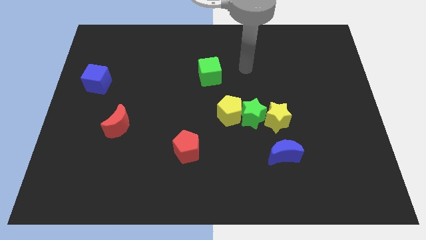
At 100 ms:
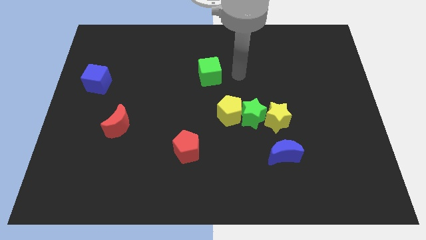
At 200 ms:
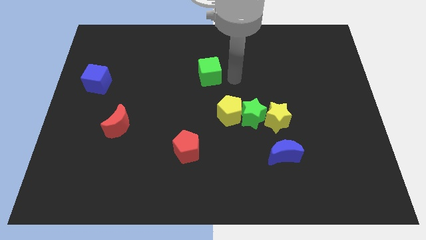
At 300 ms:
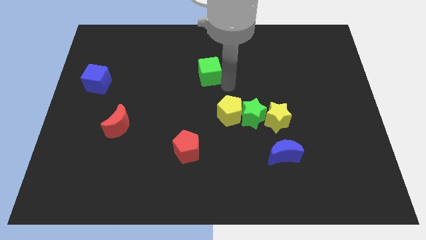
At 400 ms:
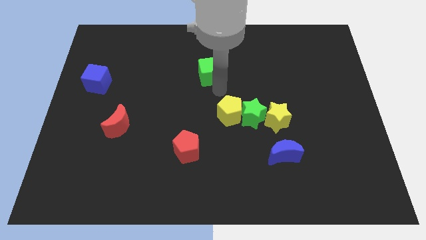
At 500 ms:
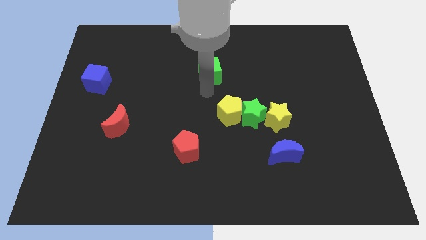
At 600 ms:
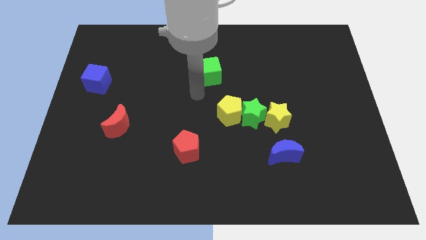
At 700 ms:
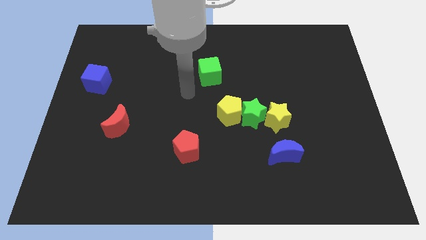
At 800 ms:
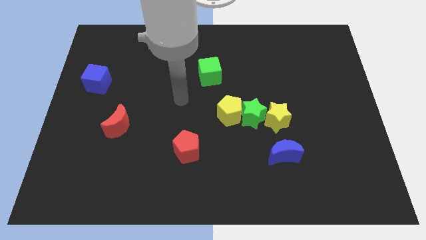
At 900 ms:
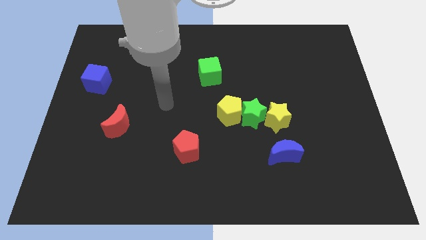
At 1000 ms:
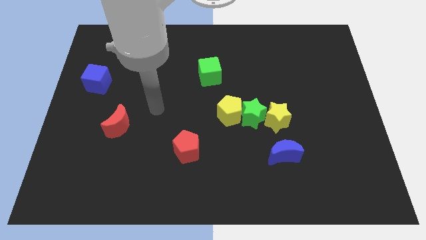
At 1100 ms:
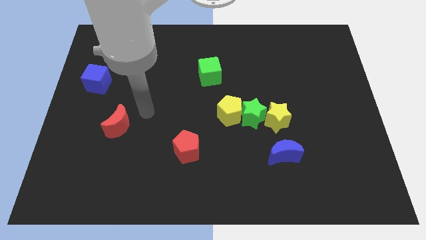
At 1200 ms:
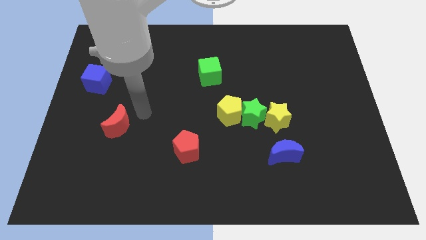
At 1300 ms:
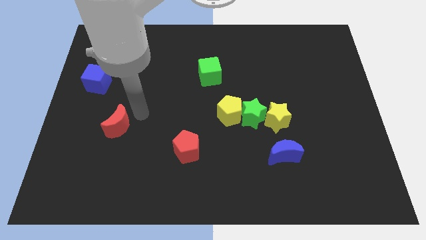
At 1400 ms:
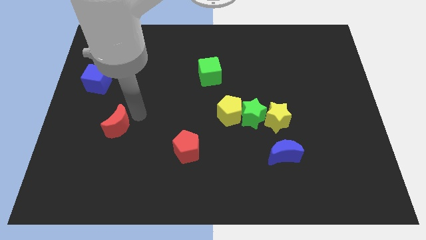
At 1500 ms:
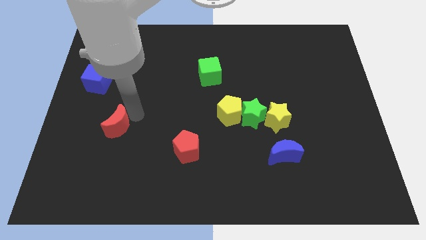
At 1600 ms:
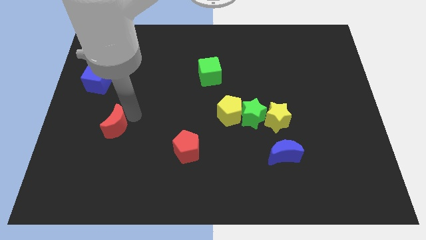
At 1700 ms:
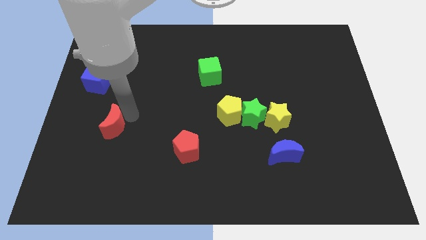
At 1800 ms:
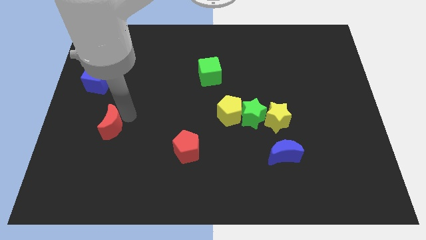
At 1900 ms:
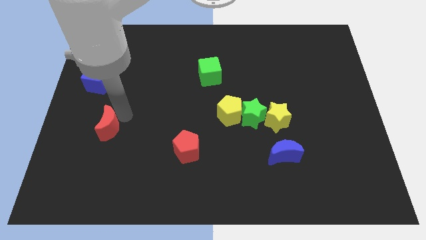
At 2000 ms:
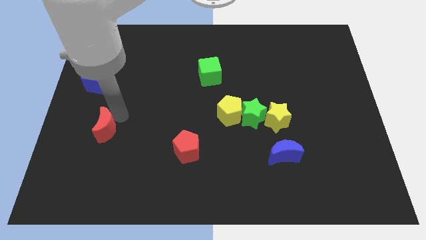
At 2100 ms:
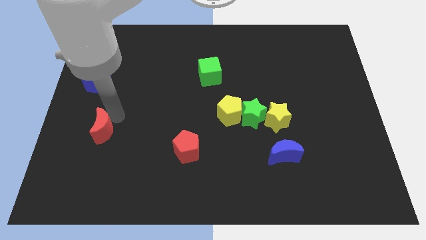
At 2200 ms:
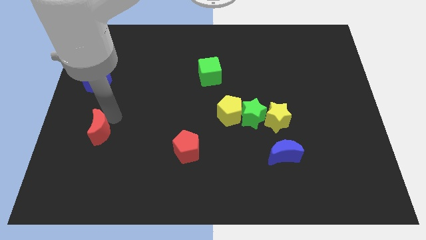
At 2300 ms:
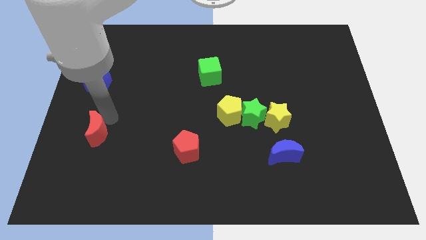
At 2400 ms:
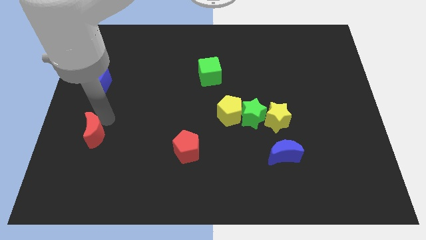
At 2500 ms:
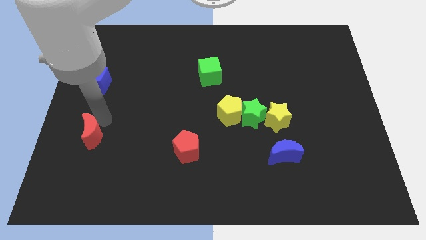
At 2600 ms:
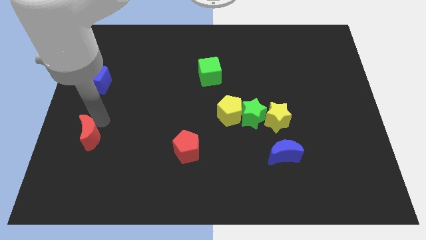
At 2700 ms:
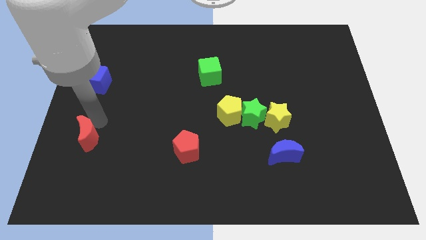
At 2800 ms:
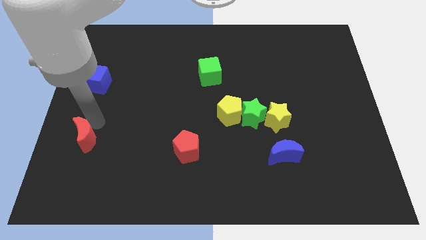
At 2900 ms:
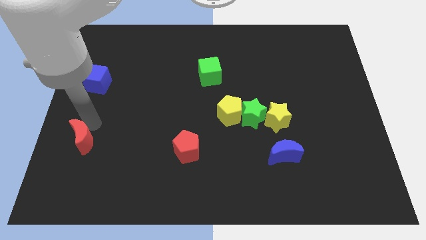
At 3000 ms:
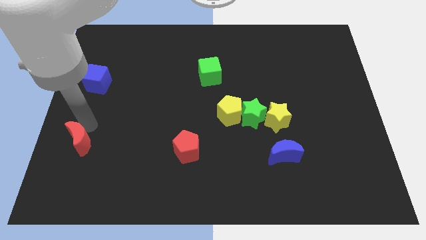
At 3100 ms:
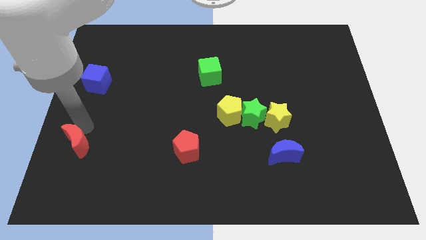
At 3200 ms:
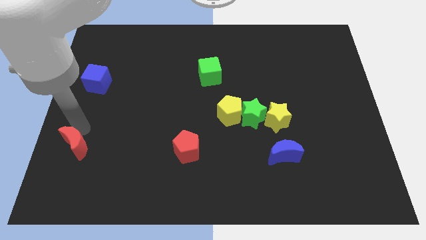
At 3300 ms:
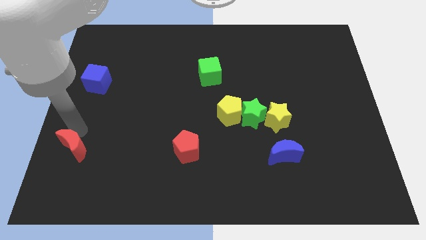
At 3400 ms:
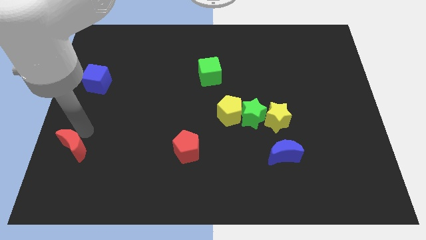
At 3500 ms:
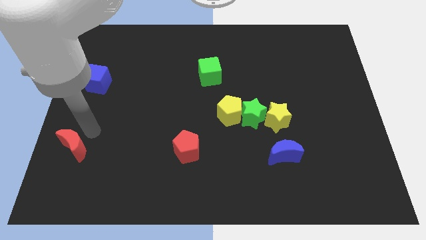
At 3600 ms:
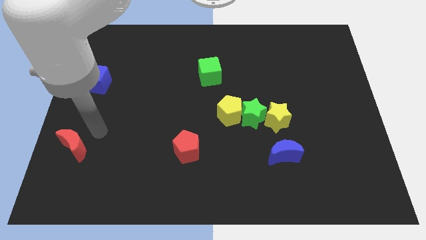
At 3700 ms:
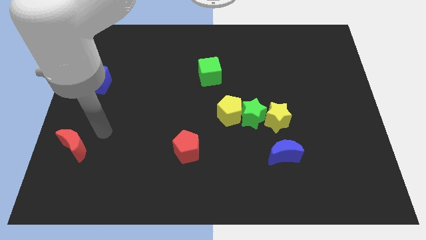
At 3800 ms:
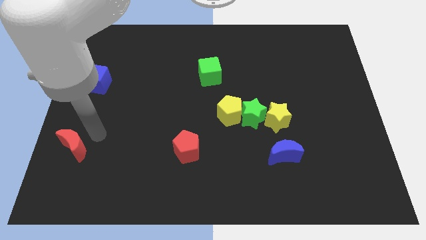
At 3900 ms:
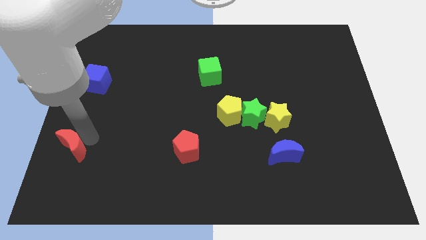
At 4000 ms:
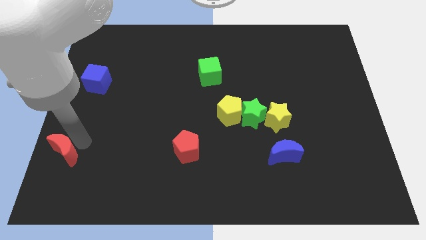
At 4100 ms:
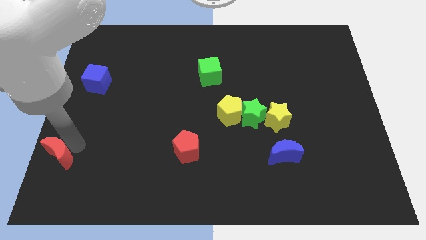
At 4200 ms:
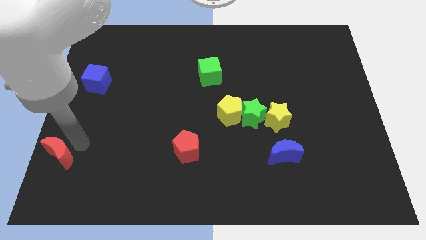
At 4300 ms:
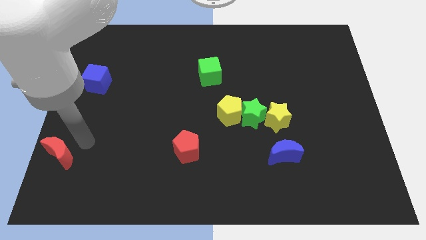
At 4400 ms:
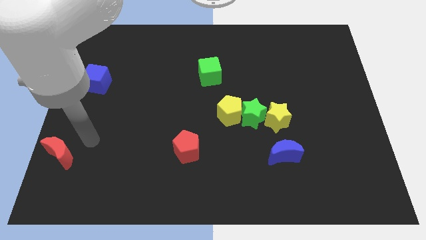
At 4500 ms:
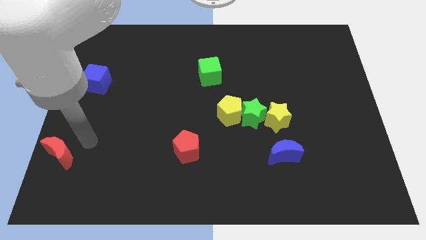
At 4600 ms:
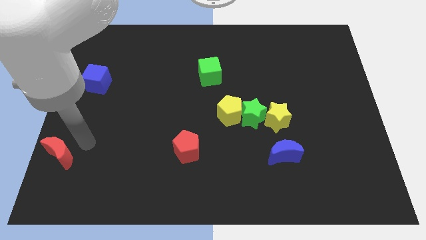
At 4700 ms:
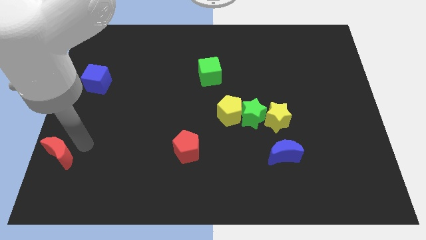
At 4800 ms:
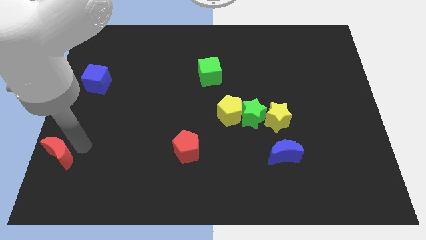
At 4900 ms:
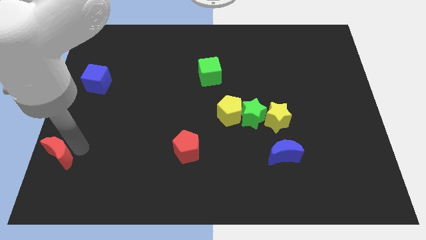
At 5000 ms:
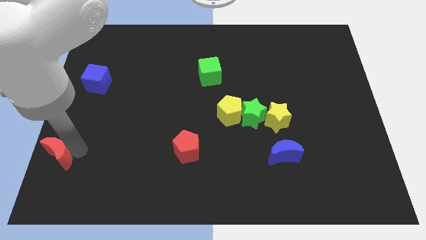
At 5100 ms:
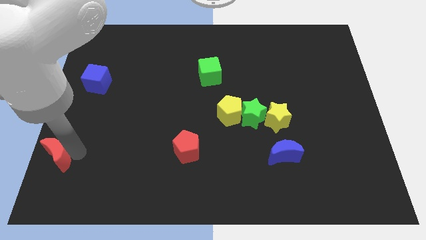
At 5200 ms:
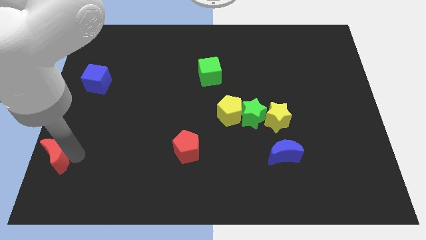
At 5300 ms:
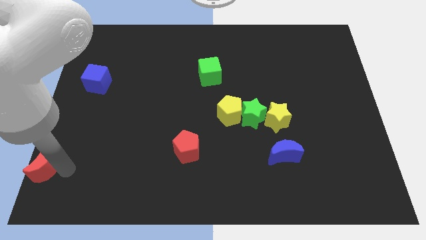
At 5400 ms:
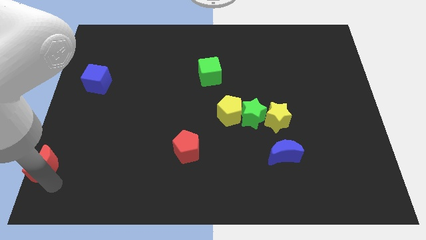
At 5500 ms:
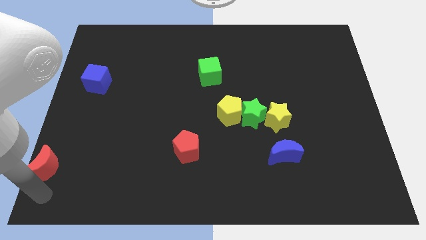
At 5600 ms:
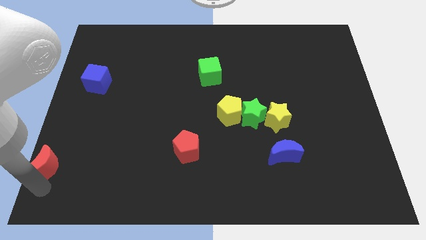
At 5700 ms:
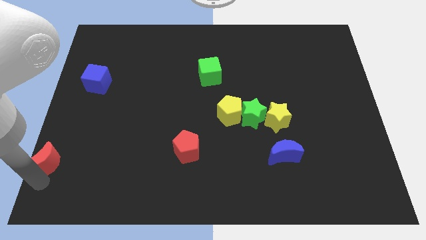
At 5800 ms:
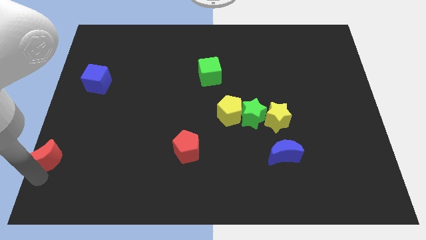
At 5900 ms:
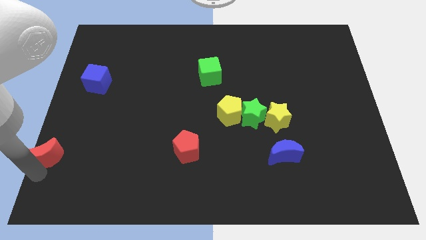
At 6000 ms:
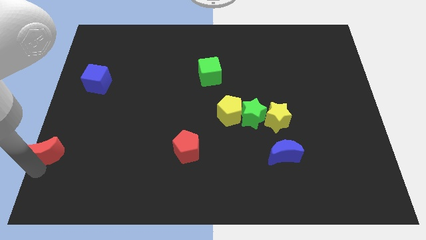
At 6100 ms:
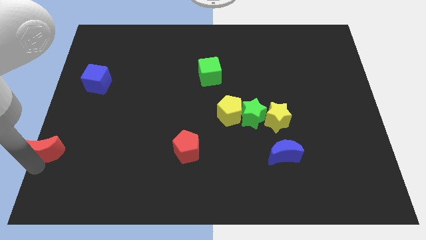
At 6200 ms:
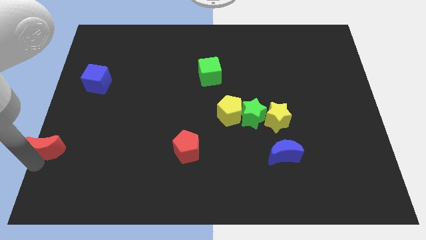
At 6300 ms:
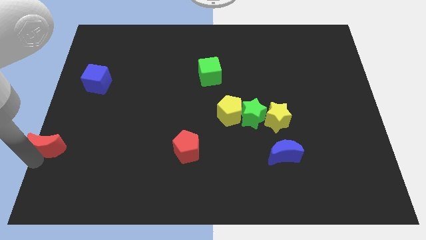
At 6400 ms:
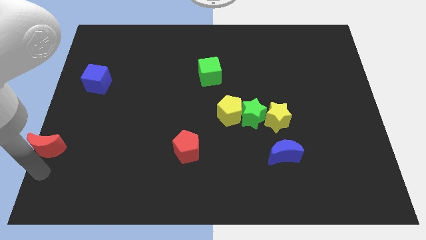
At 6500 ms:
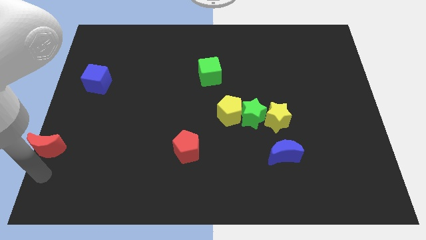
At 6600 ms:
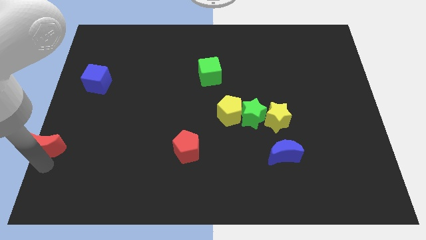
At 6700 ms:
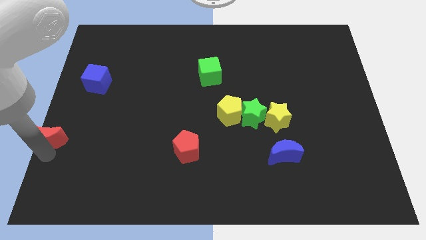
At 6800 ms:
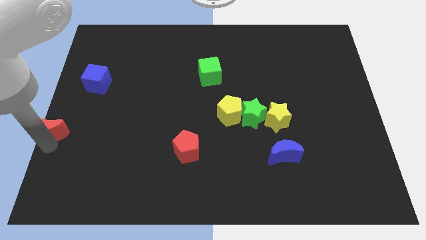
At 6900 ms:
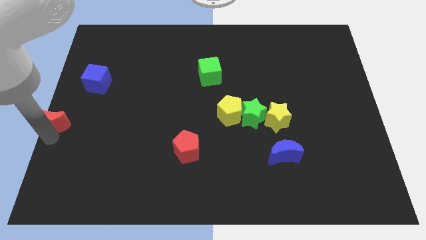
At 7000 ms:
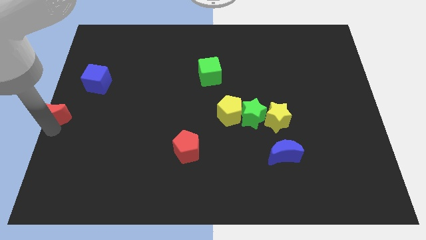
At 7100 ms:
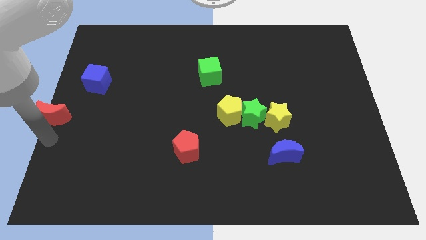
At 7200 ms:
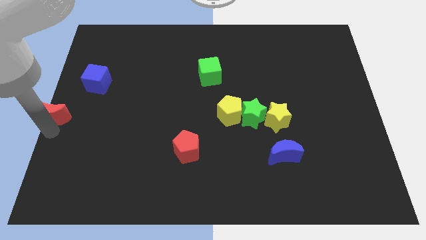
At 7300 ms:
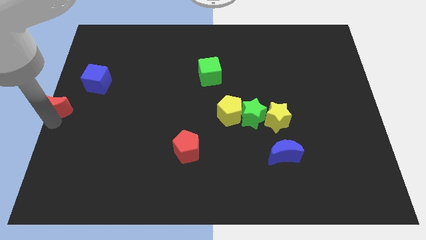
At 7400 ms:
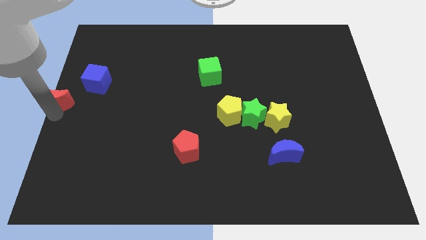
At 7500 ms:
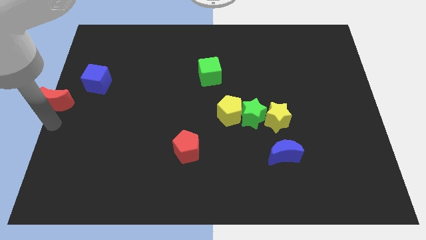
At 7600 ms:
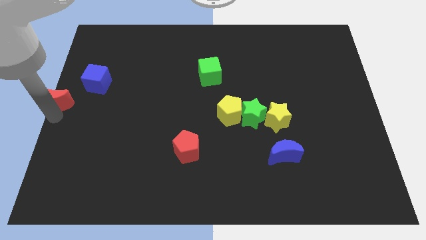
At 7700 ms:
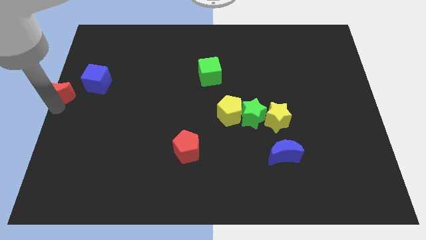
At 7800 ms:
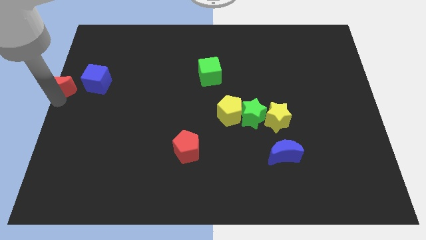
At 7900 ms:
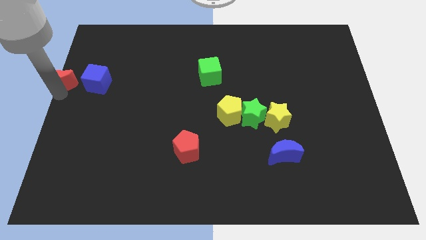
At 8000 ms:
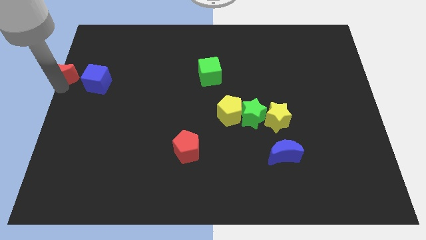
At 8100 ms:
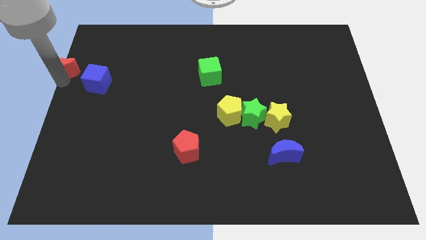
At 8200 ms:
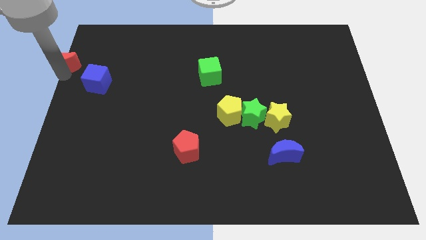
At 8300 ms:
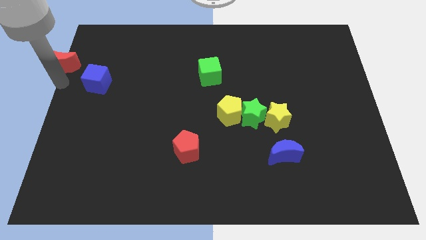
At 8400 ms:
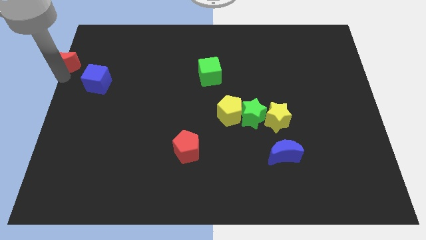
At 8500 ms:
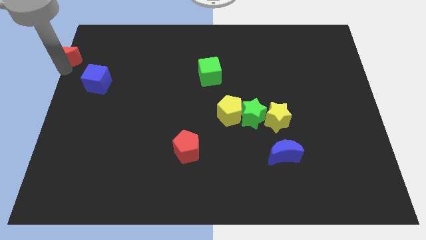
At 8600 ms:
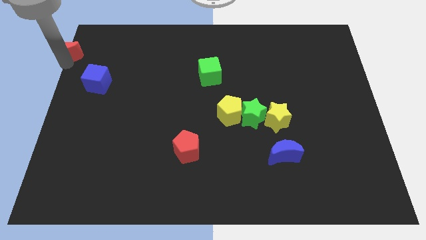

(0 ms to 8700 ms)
move the red moon to the top left corner
